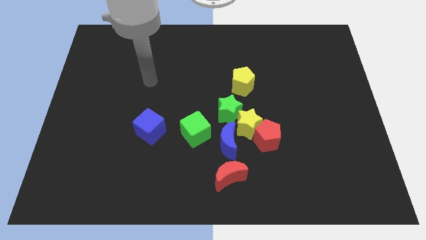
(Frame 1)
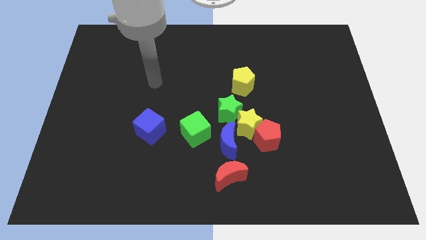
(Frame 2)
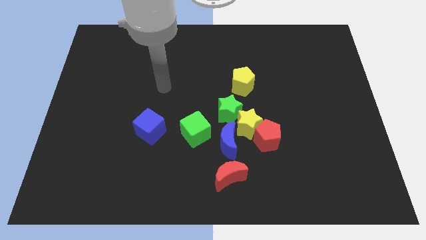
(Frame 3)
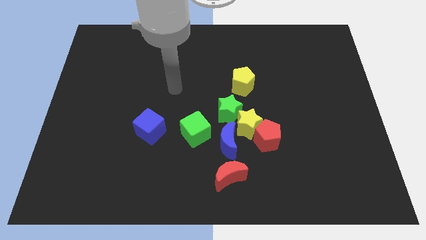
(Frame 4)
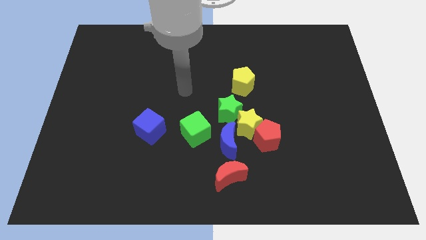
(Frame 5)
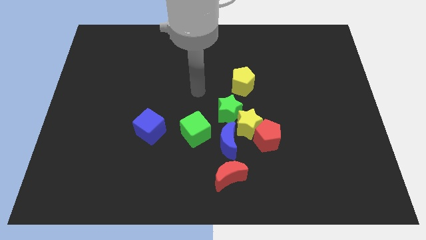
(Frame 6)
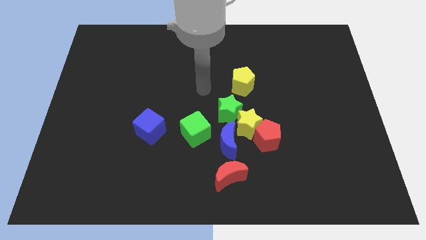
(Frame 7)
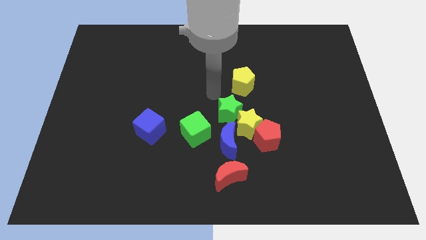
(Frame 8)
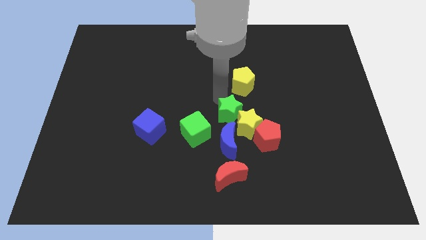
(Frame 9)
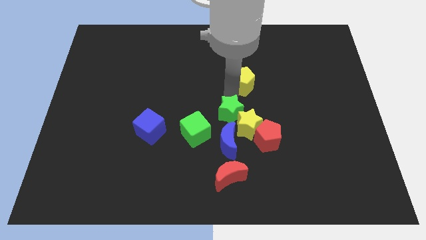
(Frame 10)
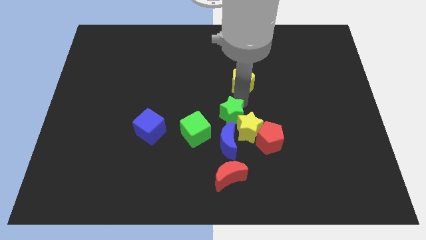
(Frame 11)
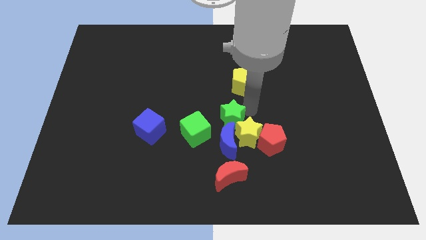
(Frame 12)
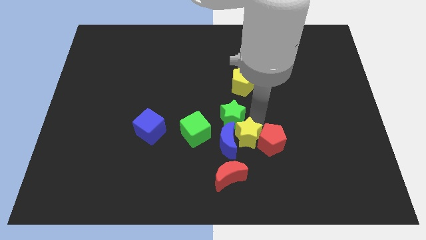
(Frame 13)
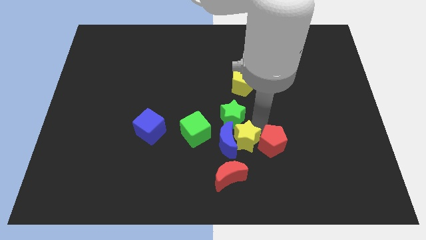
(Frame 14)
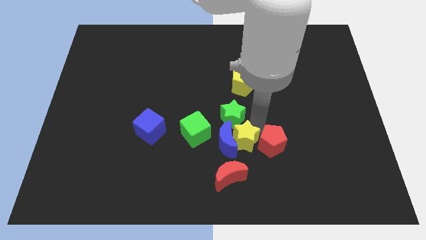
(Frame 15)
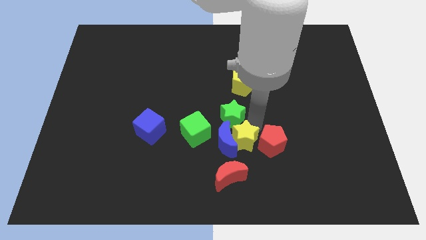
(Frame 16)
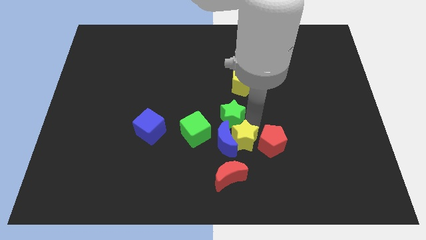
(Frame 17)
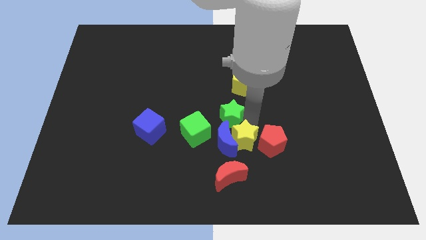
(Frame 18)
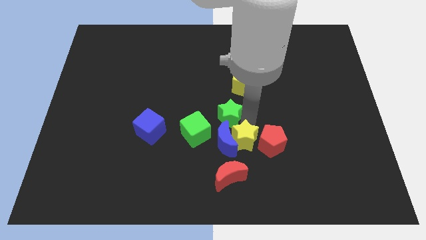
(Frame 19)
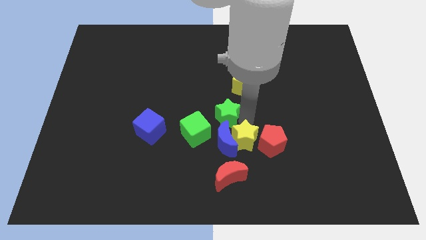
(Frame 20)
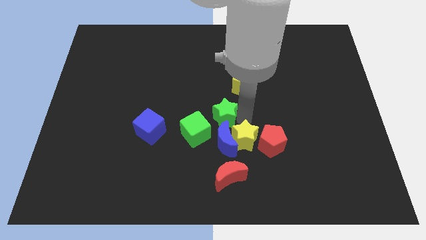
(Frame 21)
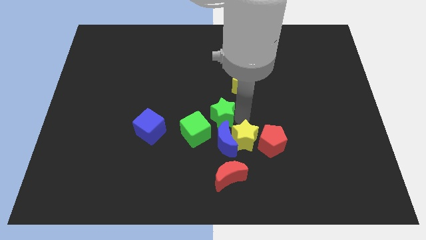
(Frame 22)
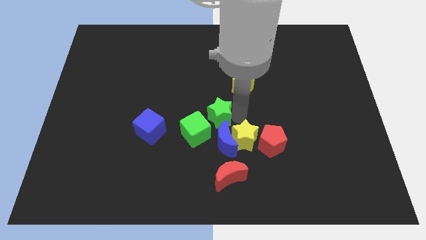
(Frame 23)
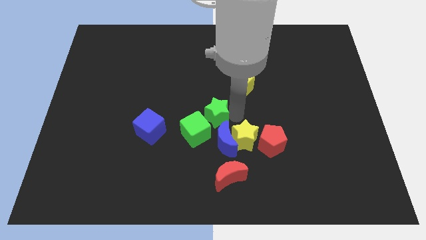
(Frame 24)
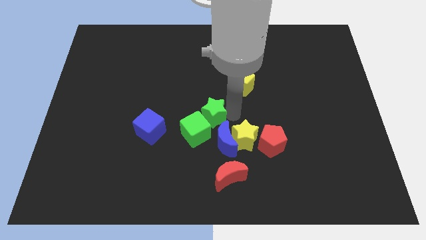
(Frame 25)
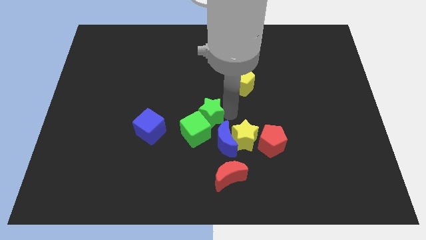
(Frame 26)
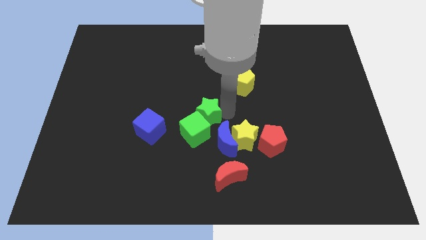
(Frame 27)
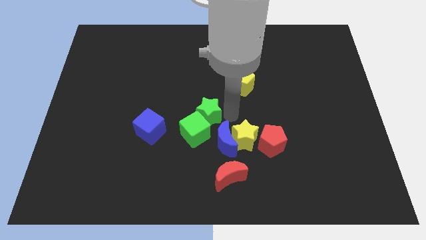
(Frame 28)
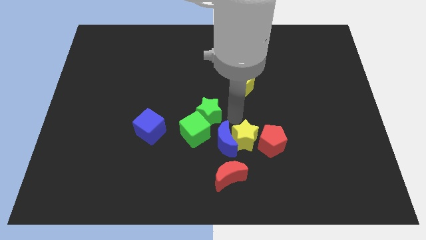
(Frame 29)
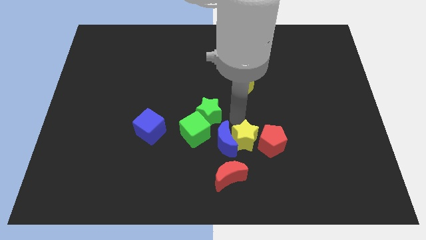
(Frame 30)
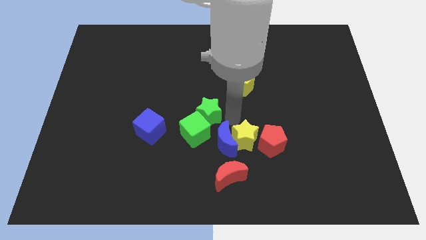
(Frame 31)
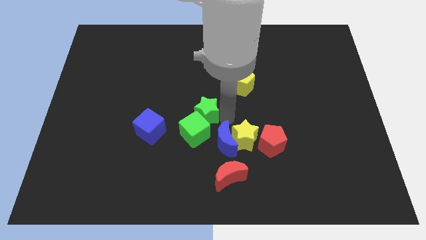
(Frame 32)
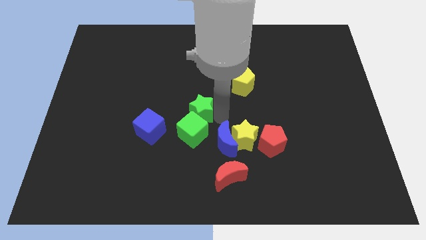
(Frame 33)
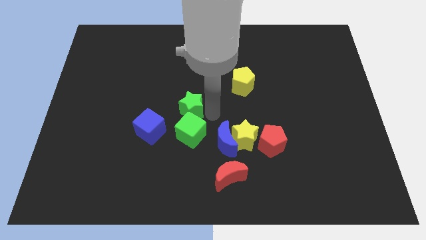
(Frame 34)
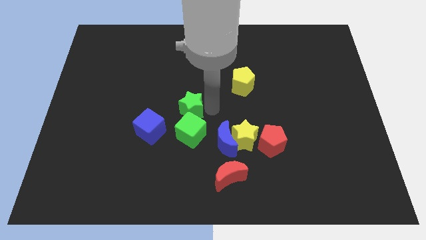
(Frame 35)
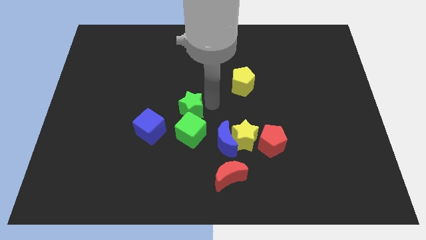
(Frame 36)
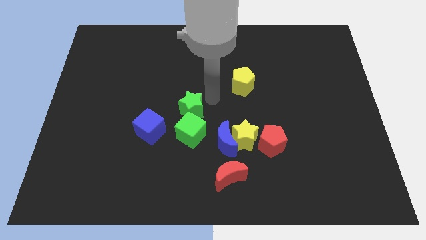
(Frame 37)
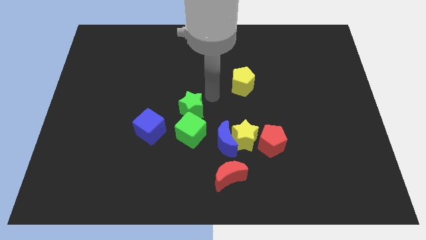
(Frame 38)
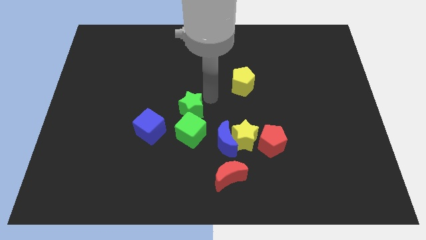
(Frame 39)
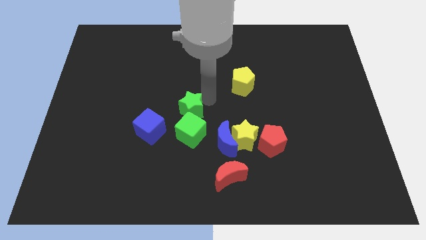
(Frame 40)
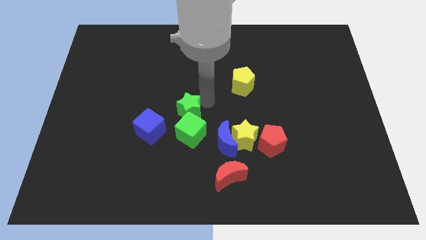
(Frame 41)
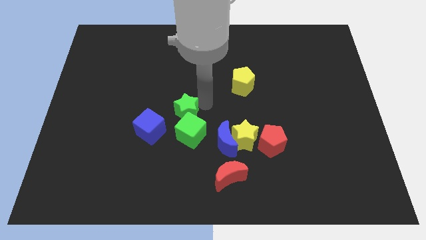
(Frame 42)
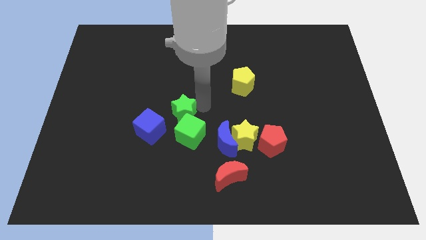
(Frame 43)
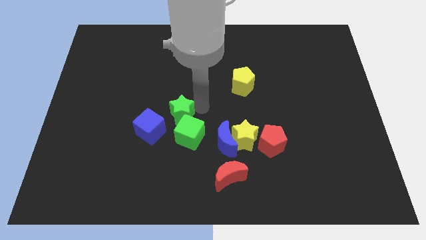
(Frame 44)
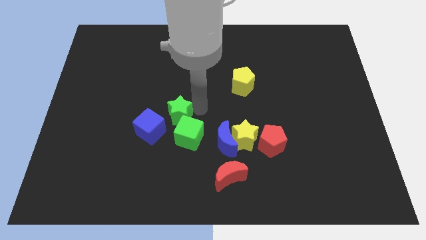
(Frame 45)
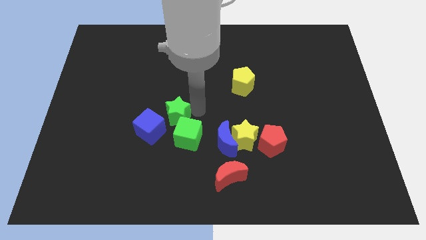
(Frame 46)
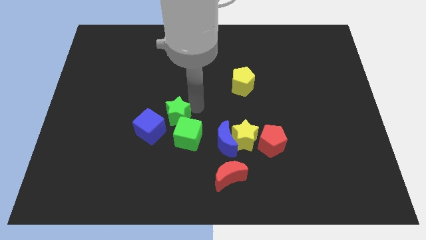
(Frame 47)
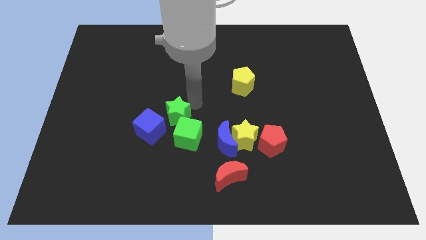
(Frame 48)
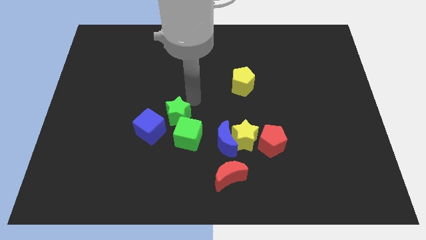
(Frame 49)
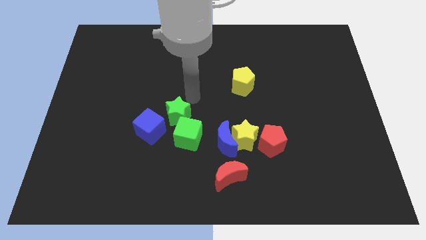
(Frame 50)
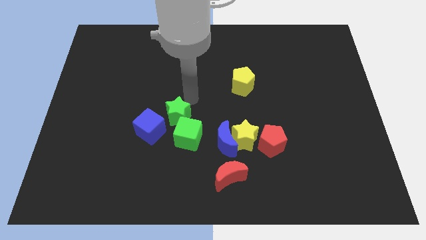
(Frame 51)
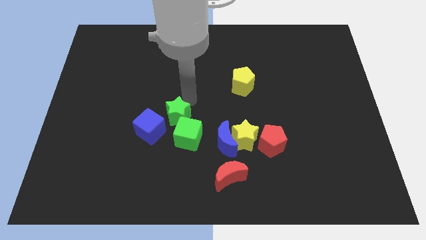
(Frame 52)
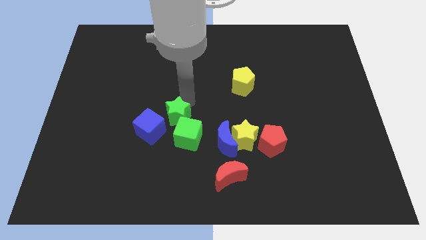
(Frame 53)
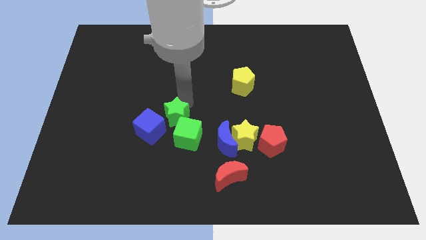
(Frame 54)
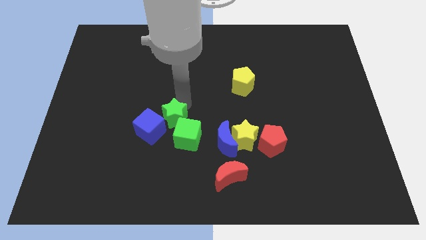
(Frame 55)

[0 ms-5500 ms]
slide the green star next to the blue cube

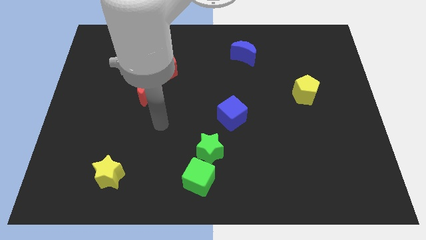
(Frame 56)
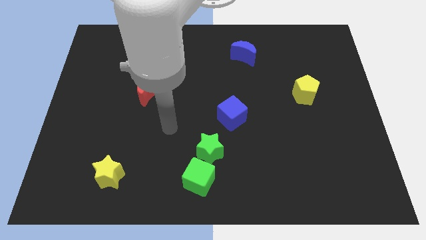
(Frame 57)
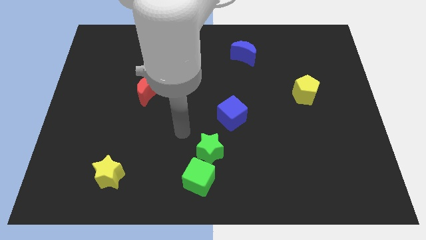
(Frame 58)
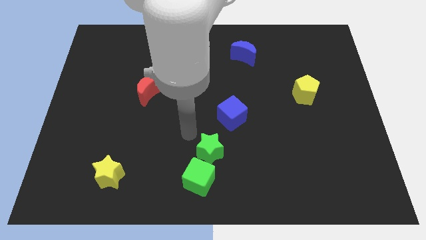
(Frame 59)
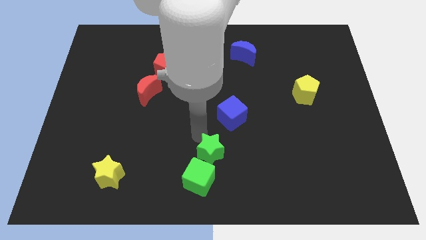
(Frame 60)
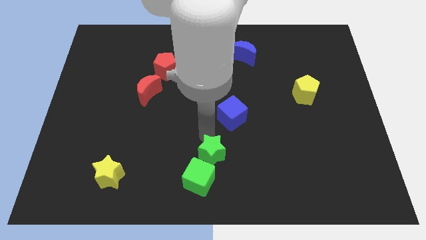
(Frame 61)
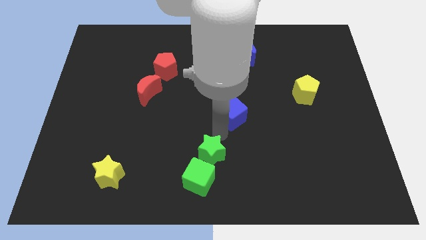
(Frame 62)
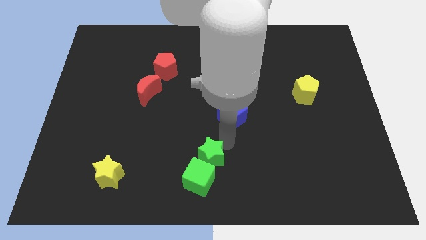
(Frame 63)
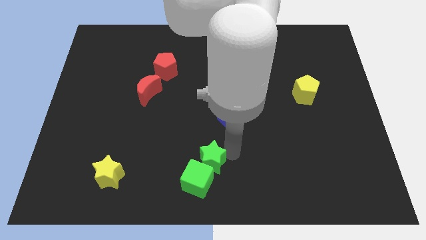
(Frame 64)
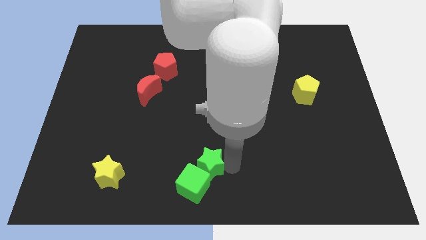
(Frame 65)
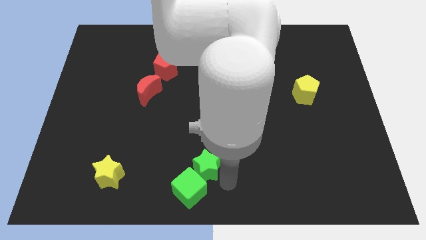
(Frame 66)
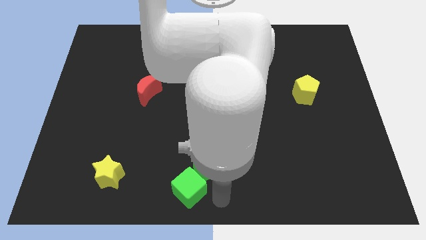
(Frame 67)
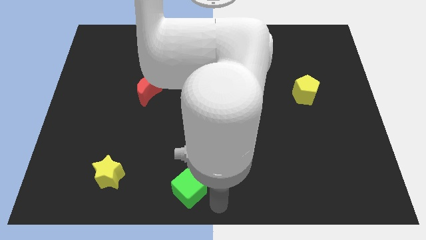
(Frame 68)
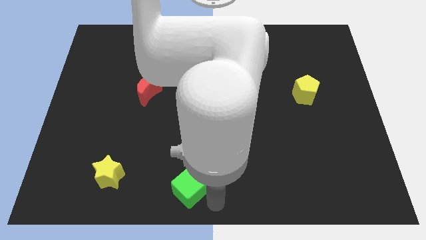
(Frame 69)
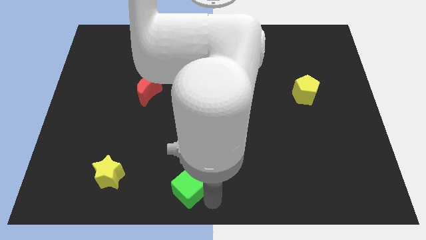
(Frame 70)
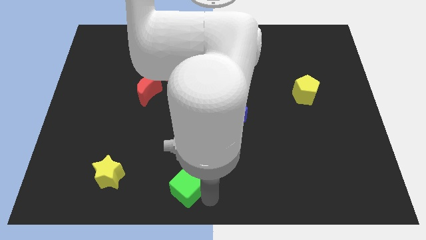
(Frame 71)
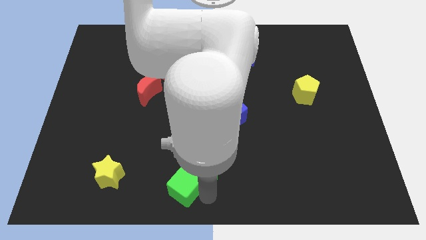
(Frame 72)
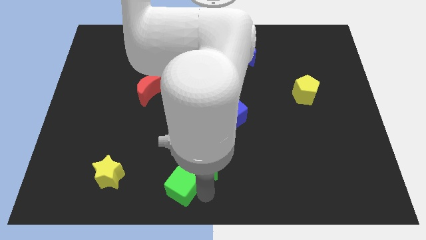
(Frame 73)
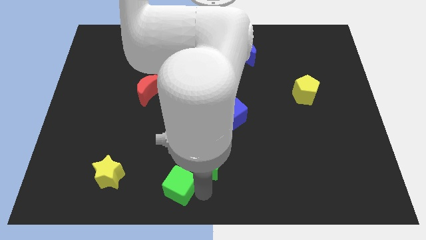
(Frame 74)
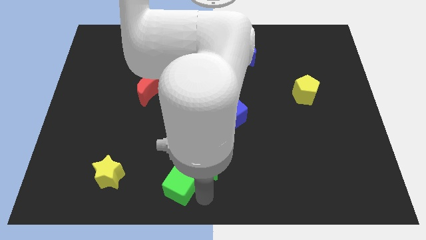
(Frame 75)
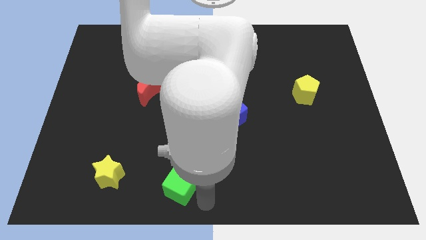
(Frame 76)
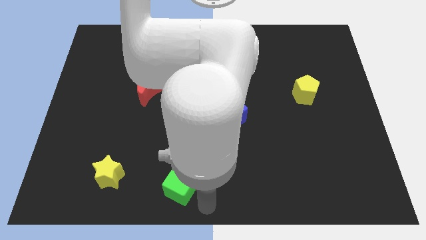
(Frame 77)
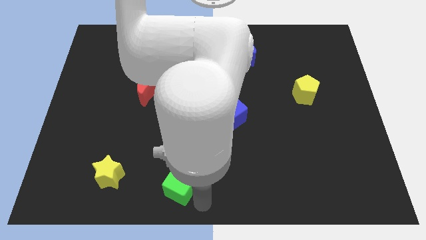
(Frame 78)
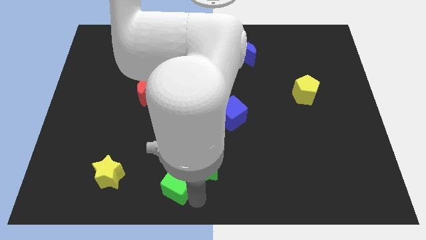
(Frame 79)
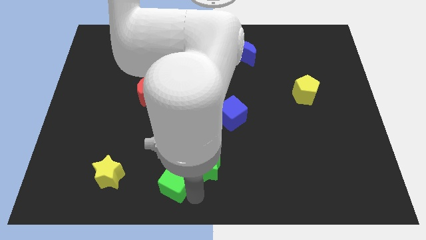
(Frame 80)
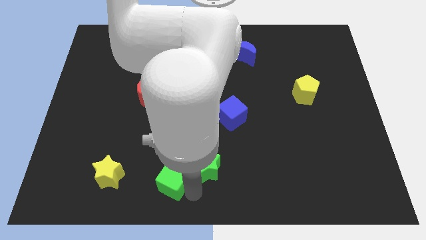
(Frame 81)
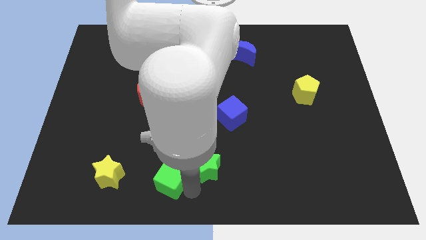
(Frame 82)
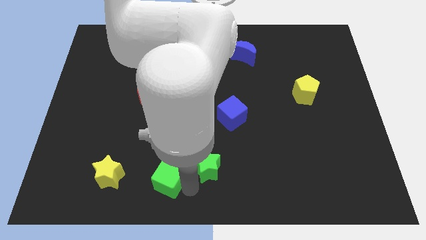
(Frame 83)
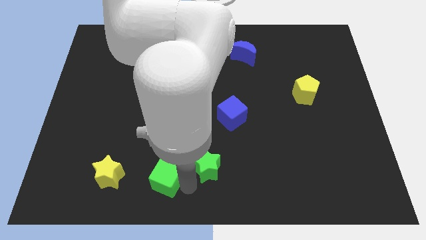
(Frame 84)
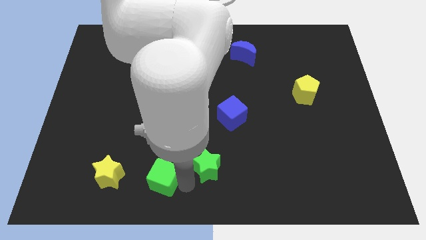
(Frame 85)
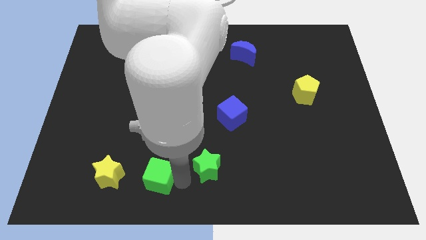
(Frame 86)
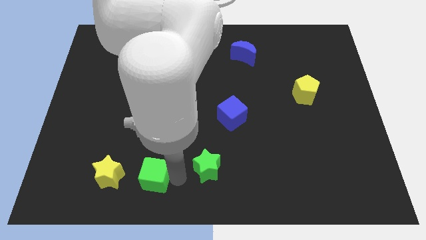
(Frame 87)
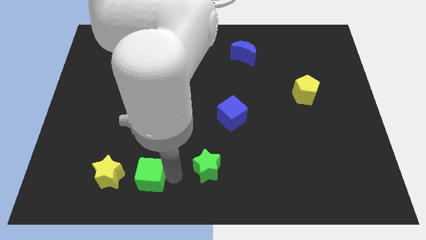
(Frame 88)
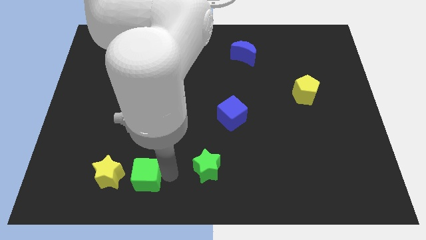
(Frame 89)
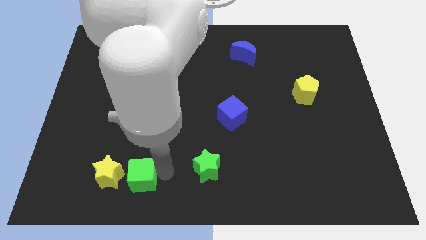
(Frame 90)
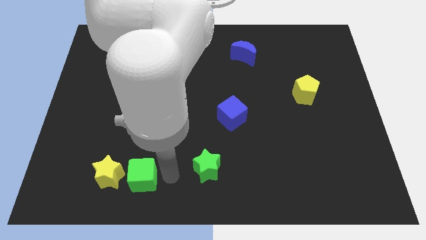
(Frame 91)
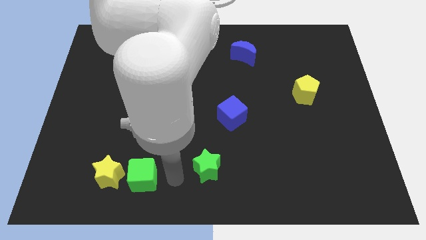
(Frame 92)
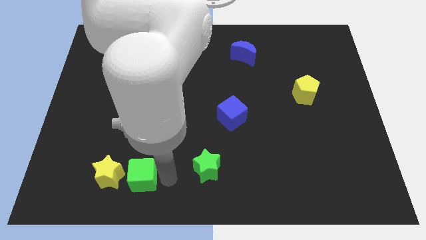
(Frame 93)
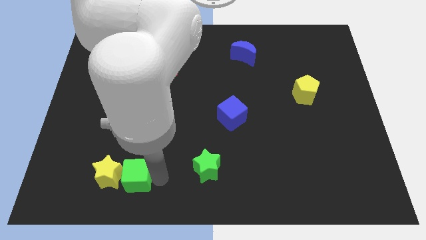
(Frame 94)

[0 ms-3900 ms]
slide the green cube close to the yellow star
